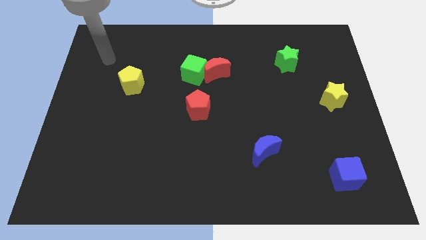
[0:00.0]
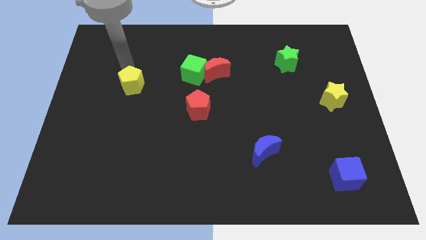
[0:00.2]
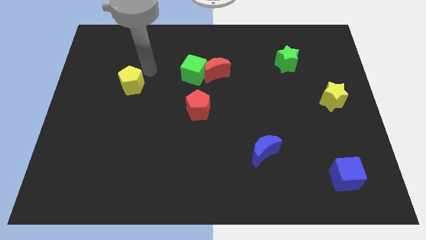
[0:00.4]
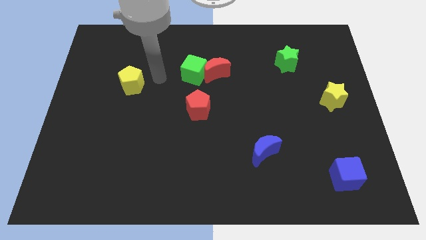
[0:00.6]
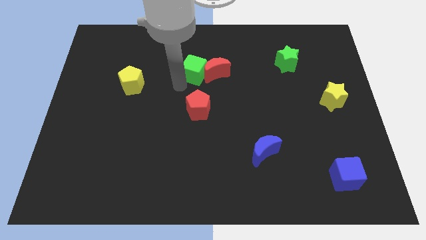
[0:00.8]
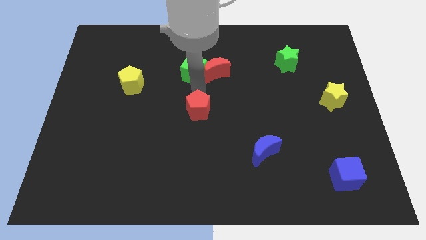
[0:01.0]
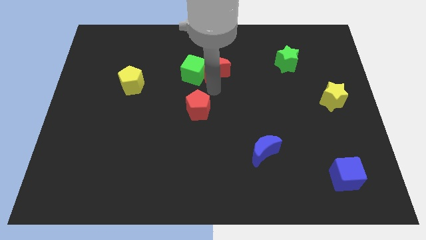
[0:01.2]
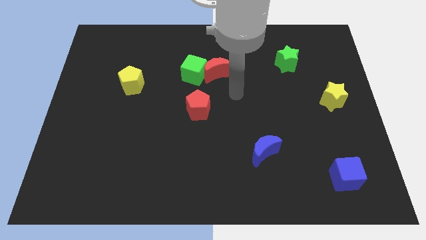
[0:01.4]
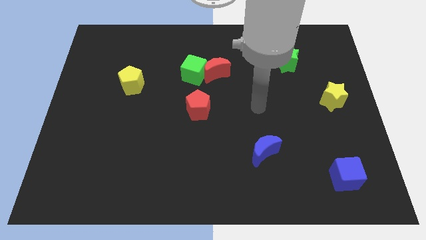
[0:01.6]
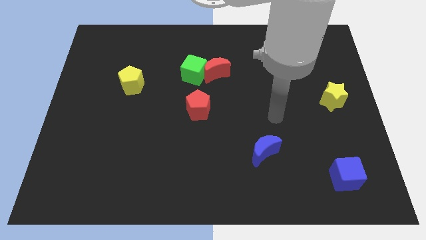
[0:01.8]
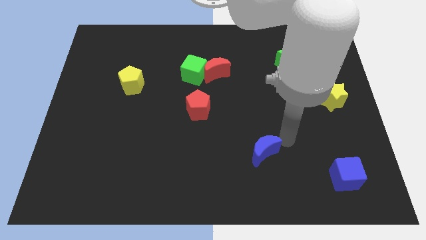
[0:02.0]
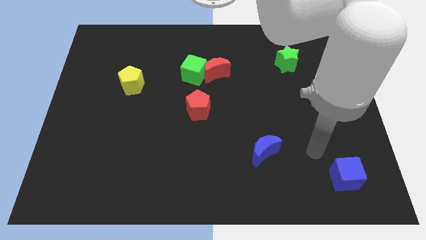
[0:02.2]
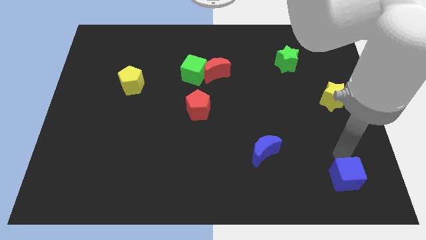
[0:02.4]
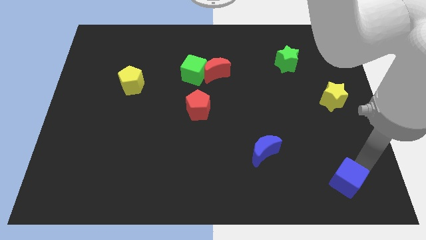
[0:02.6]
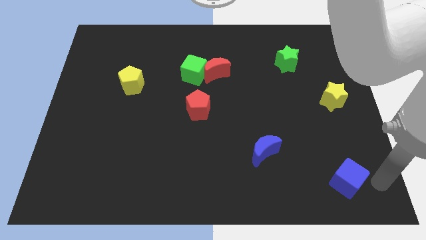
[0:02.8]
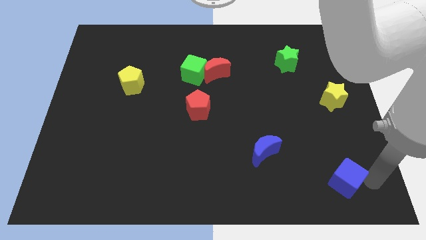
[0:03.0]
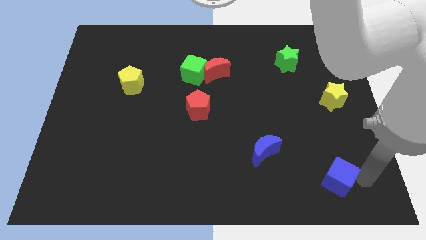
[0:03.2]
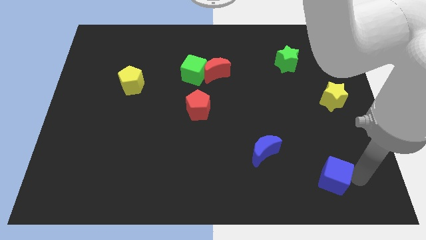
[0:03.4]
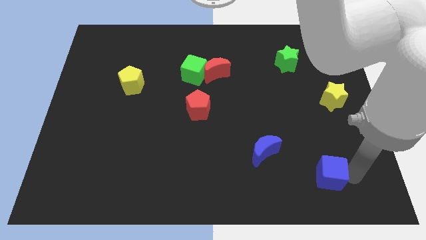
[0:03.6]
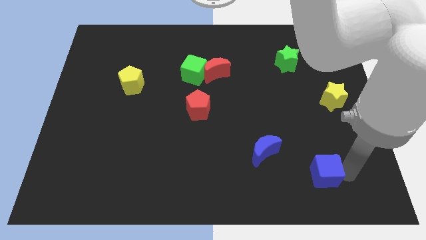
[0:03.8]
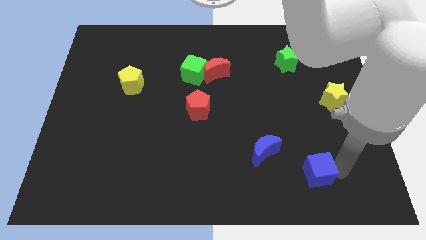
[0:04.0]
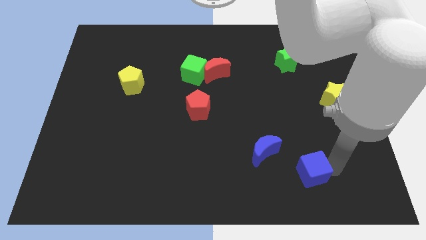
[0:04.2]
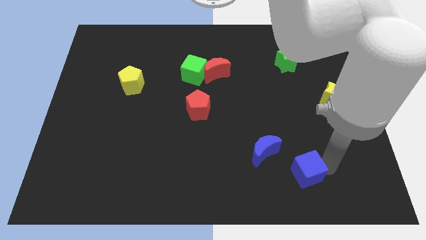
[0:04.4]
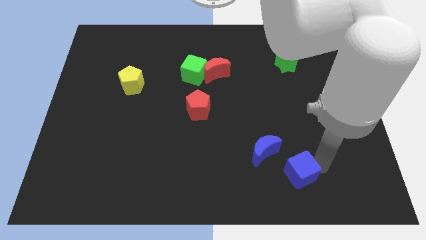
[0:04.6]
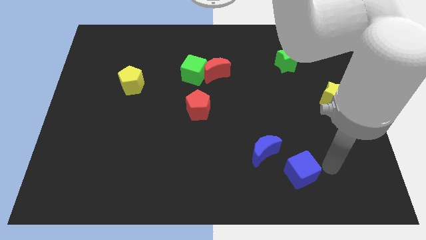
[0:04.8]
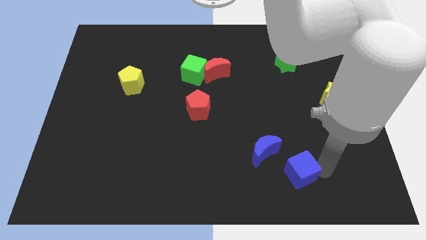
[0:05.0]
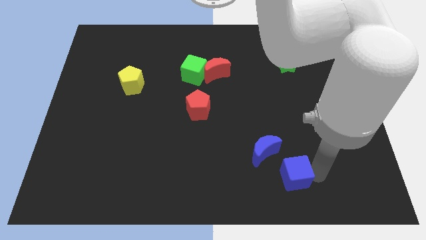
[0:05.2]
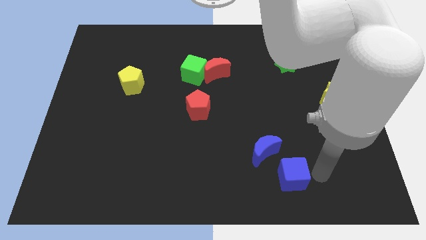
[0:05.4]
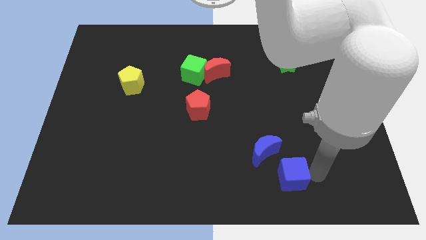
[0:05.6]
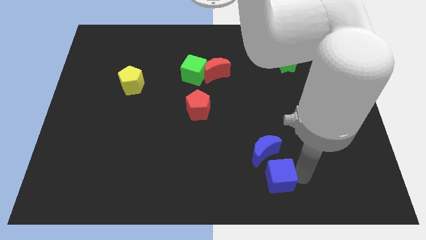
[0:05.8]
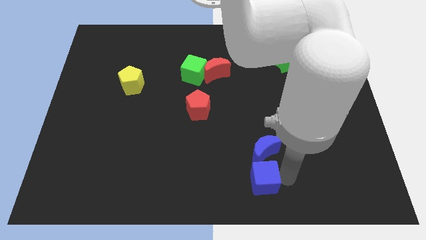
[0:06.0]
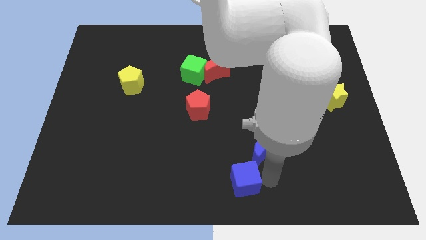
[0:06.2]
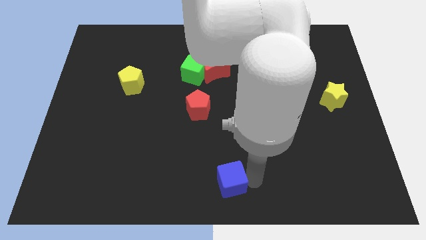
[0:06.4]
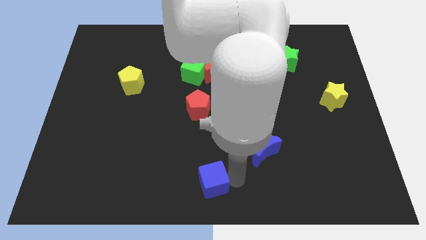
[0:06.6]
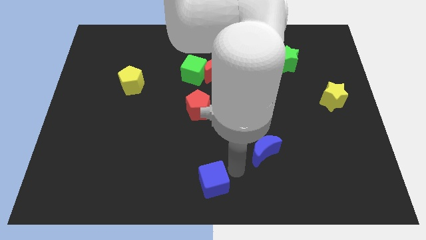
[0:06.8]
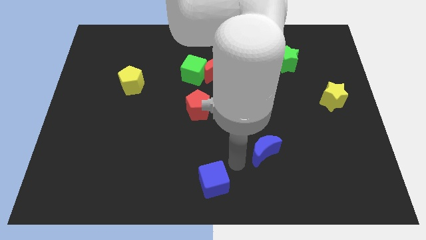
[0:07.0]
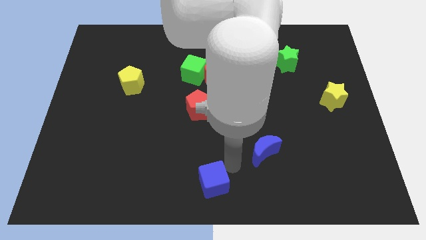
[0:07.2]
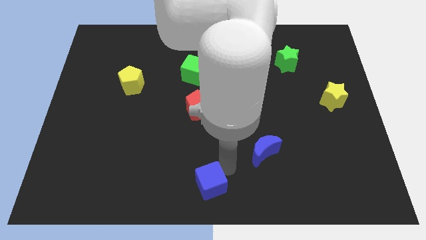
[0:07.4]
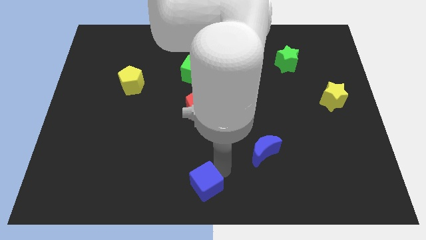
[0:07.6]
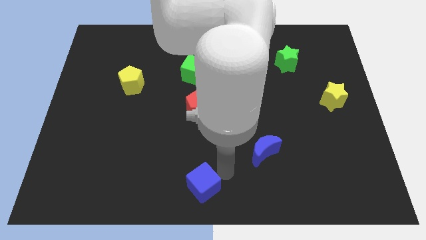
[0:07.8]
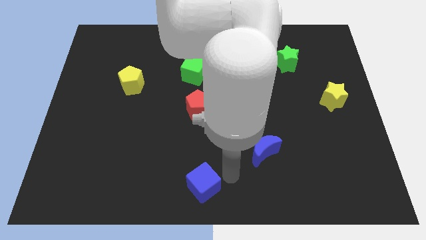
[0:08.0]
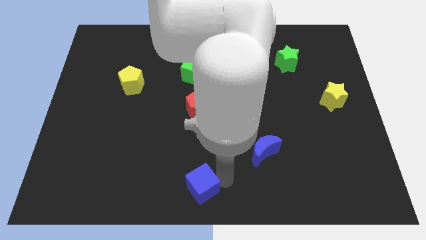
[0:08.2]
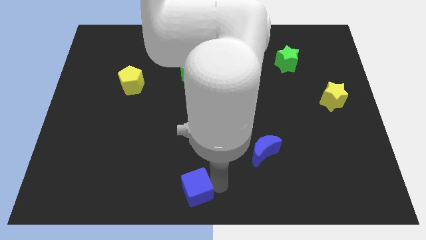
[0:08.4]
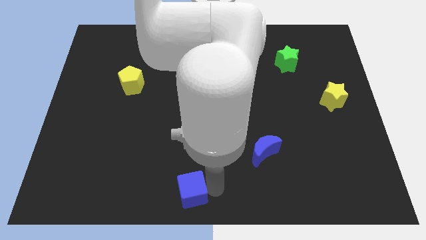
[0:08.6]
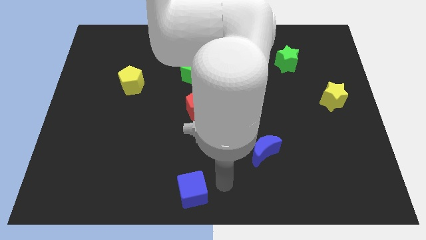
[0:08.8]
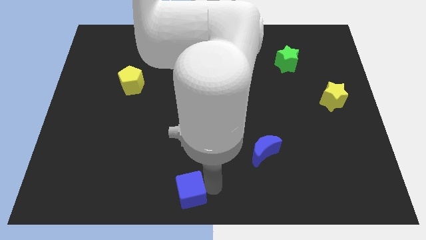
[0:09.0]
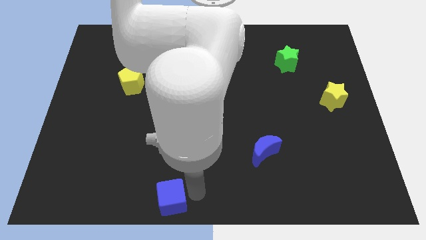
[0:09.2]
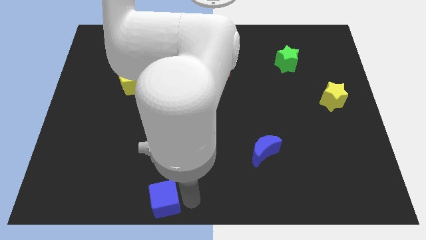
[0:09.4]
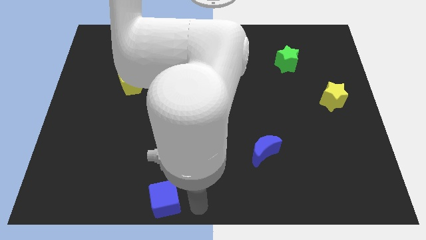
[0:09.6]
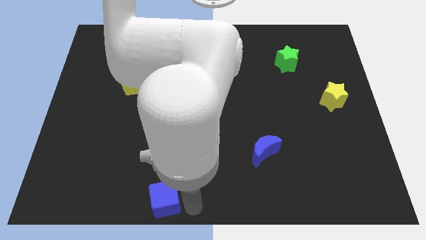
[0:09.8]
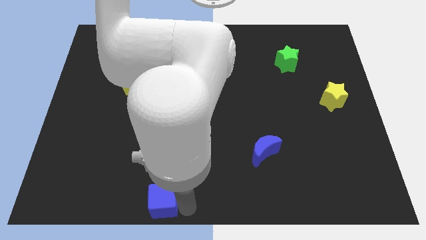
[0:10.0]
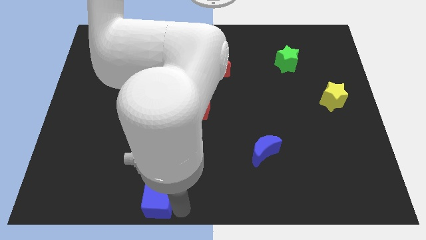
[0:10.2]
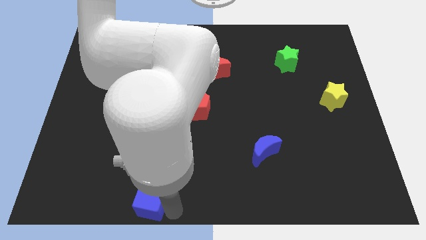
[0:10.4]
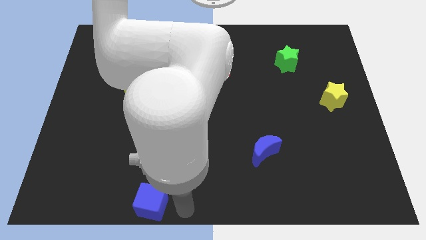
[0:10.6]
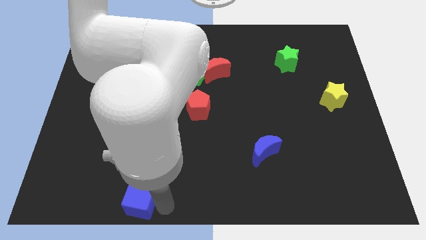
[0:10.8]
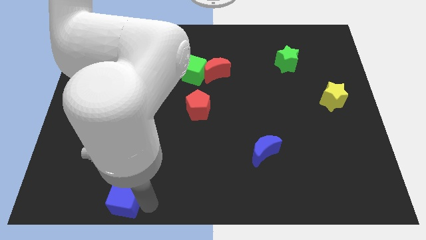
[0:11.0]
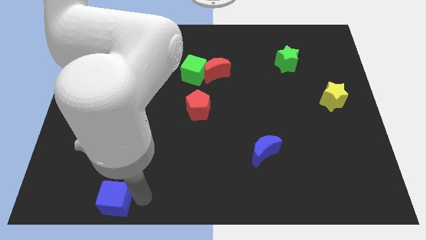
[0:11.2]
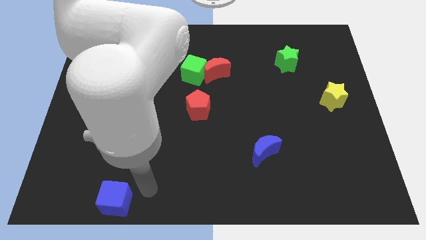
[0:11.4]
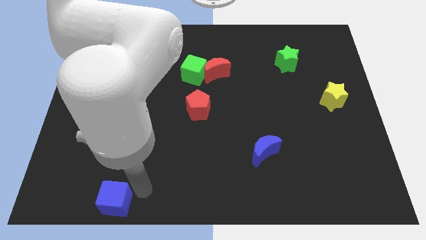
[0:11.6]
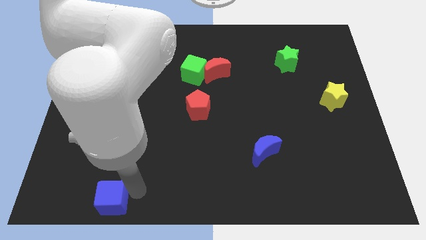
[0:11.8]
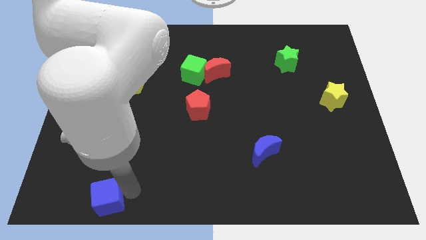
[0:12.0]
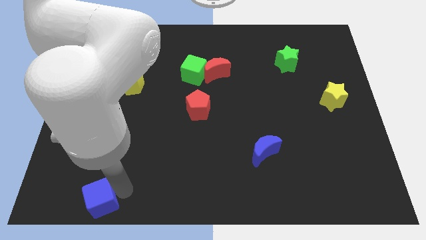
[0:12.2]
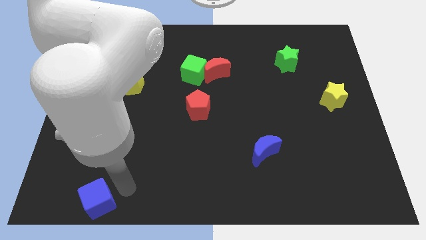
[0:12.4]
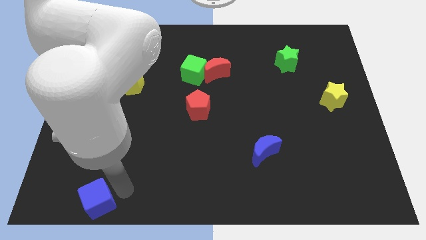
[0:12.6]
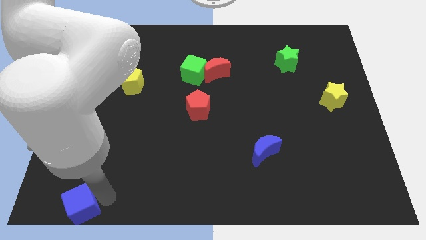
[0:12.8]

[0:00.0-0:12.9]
move the blue cube to the bottom left corner
